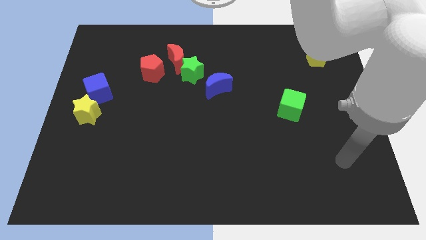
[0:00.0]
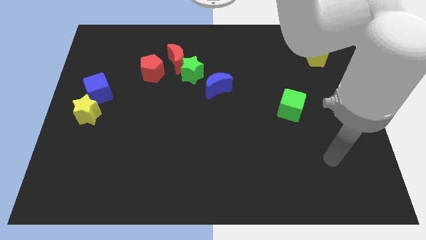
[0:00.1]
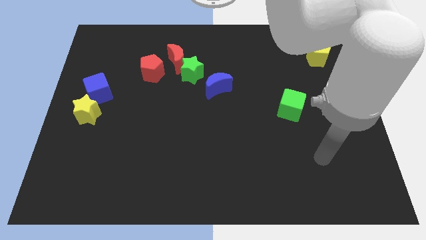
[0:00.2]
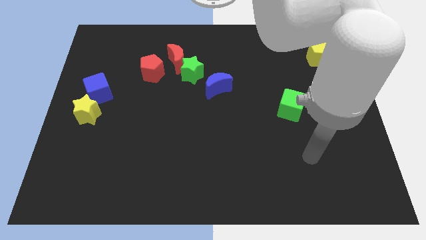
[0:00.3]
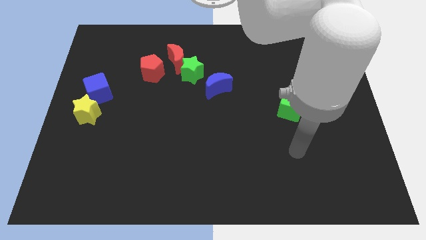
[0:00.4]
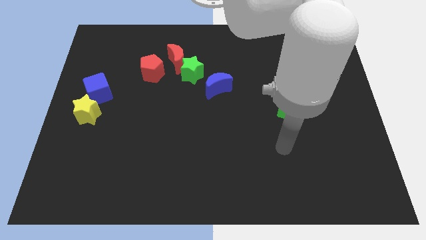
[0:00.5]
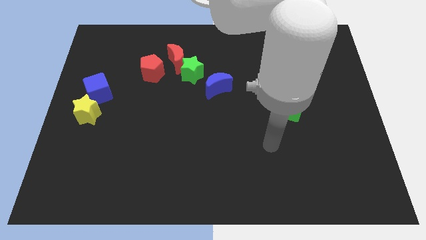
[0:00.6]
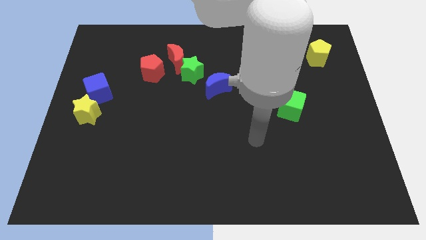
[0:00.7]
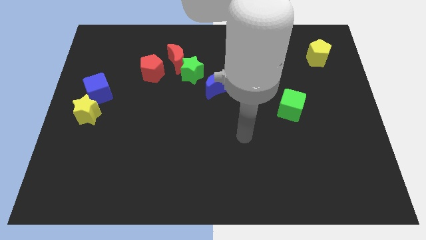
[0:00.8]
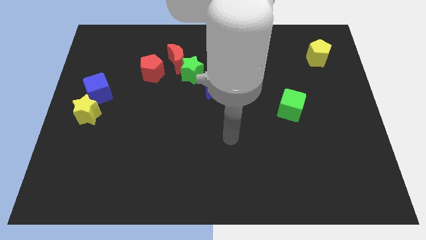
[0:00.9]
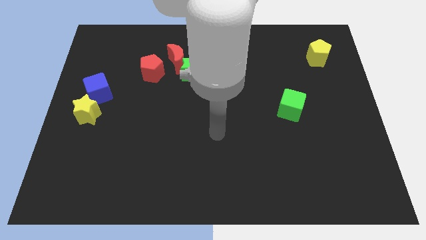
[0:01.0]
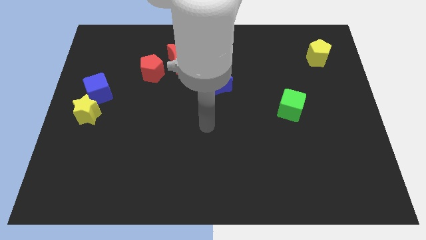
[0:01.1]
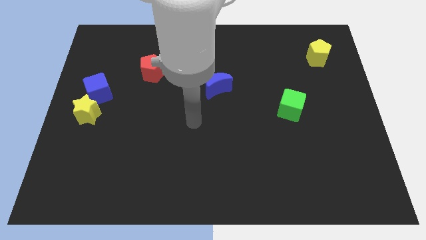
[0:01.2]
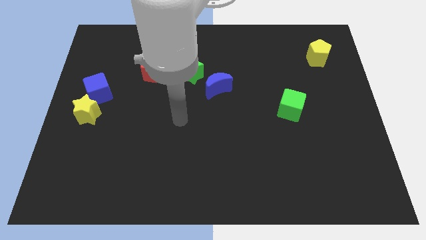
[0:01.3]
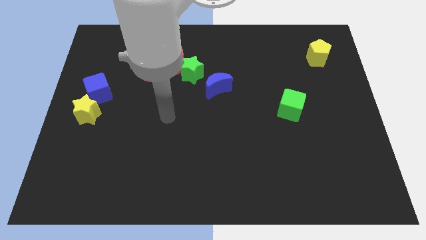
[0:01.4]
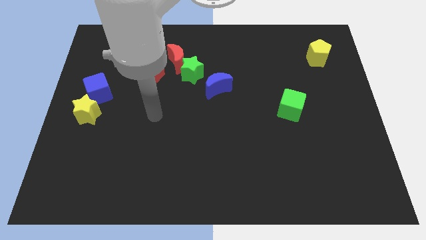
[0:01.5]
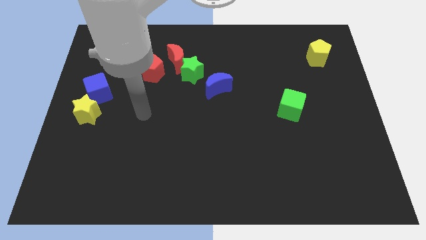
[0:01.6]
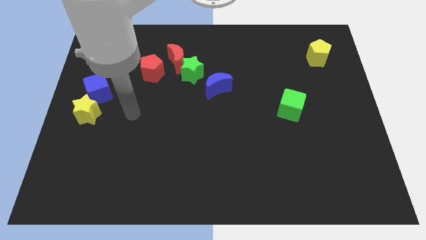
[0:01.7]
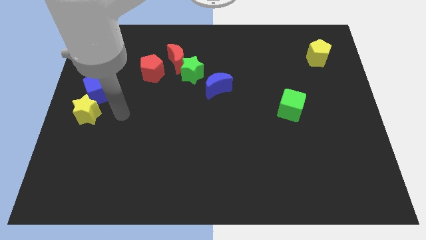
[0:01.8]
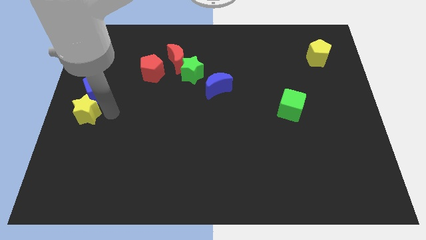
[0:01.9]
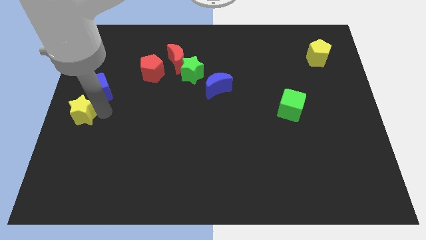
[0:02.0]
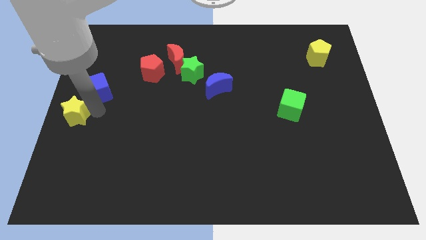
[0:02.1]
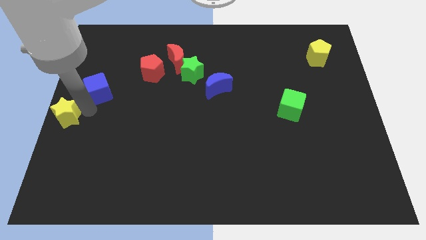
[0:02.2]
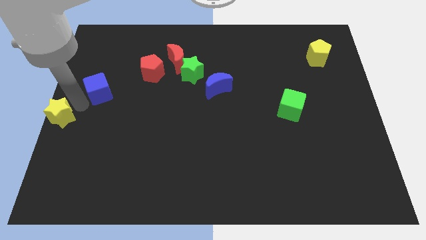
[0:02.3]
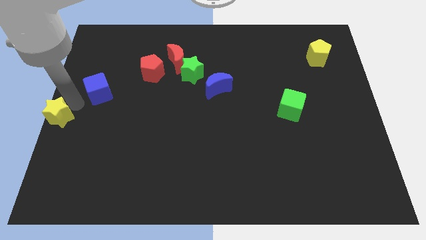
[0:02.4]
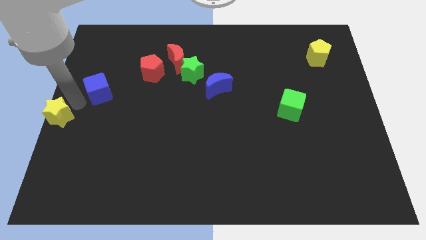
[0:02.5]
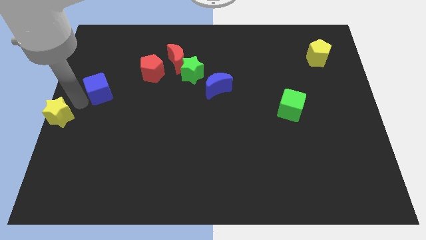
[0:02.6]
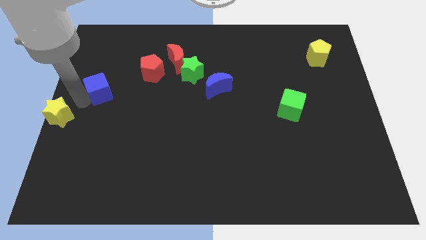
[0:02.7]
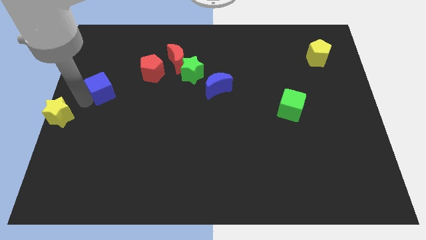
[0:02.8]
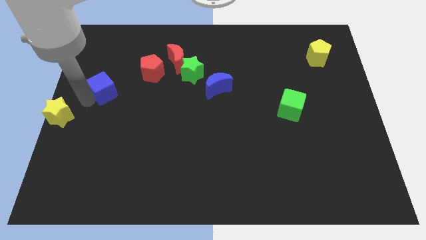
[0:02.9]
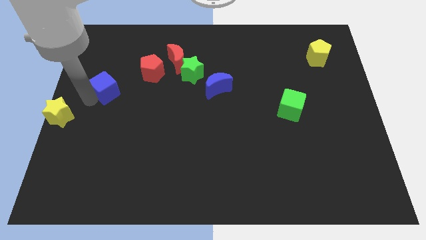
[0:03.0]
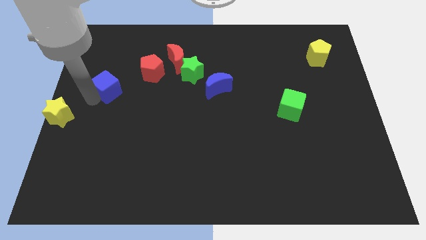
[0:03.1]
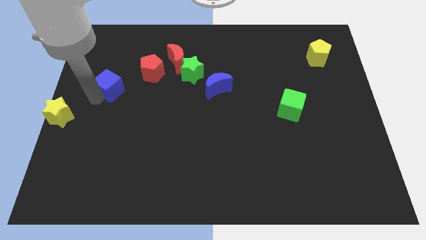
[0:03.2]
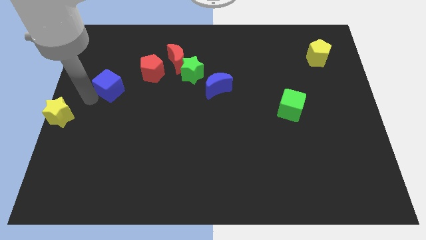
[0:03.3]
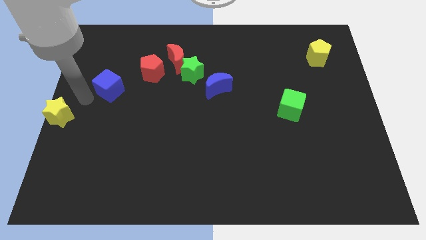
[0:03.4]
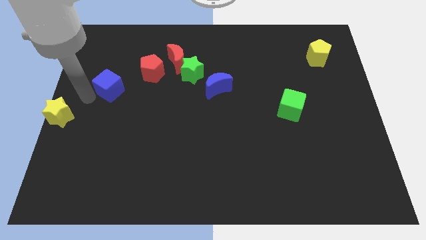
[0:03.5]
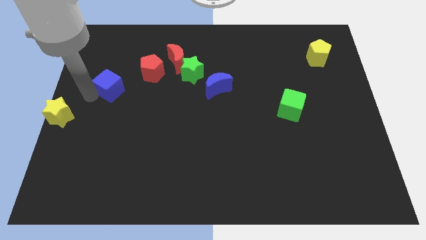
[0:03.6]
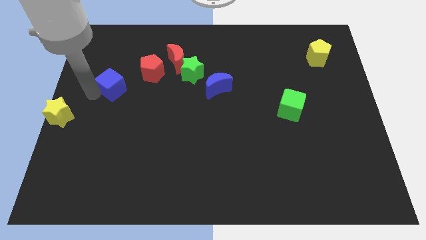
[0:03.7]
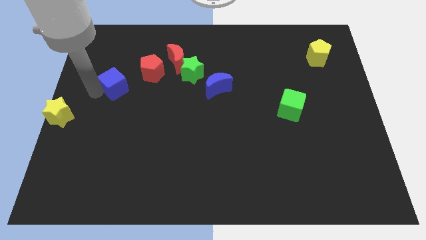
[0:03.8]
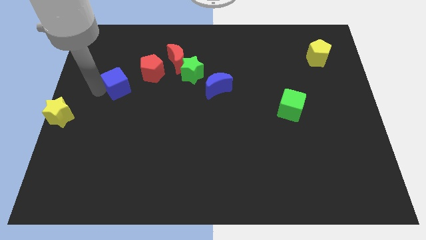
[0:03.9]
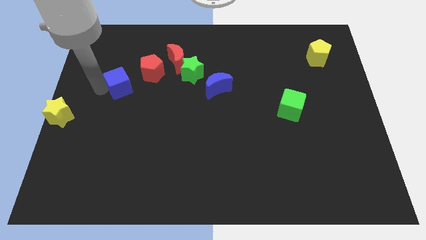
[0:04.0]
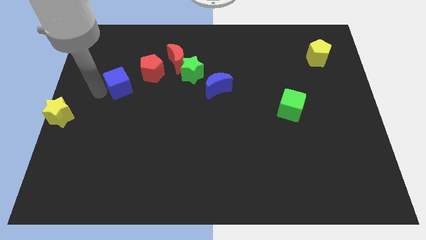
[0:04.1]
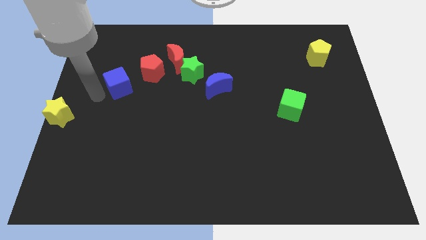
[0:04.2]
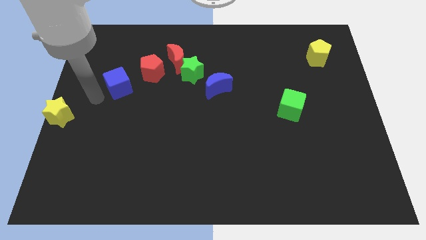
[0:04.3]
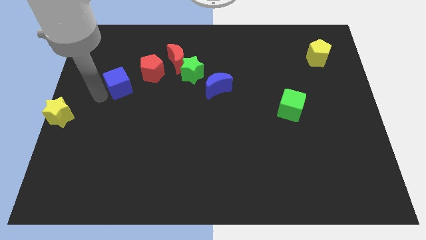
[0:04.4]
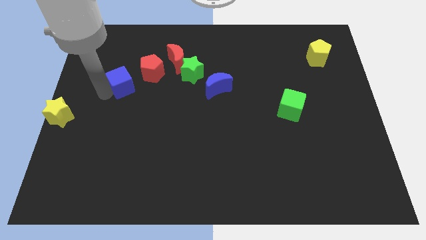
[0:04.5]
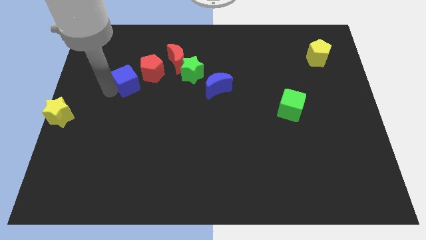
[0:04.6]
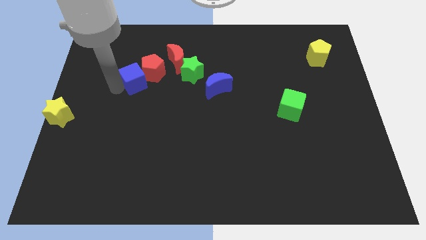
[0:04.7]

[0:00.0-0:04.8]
push the blue cube towards the red pentagon

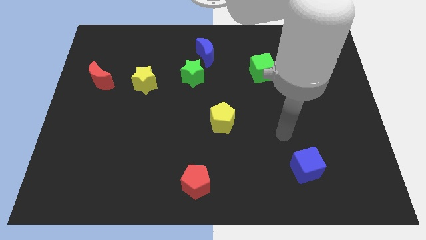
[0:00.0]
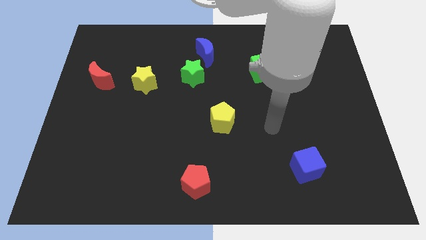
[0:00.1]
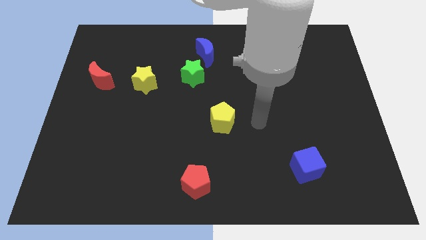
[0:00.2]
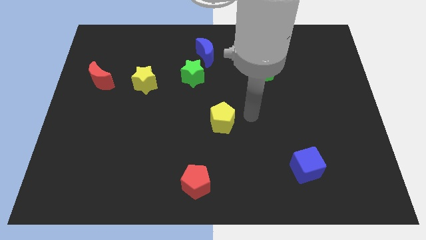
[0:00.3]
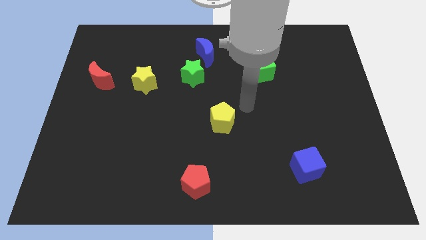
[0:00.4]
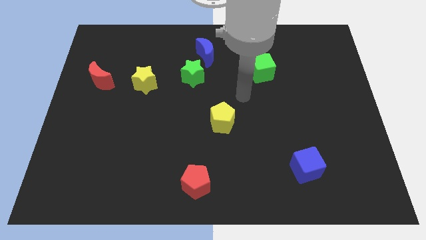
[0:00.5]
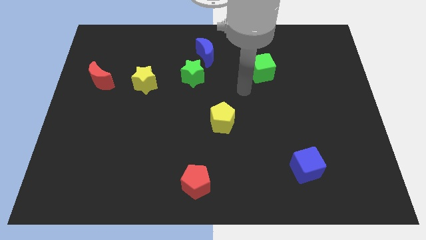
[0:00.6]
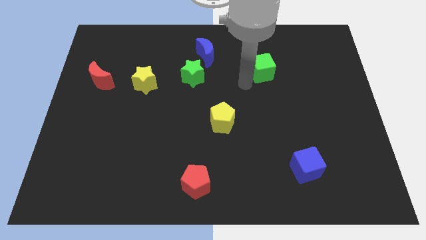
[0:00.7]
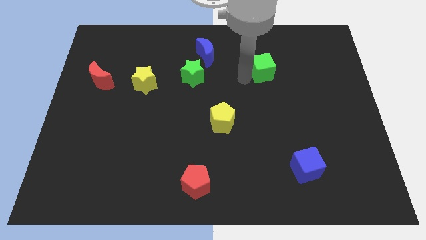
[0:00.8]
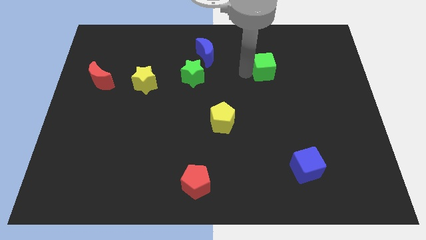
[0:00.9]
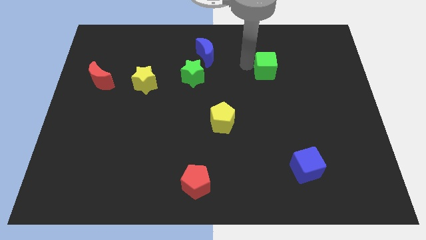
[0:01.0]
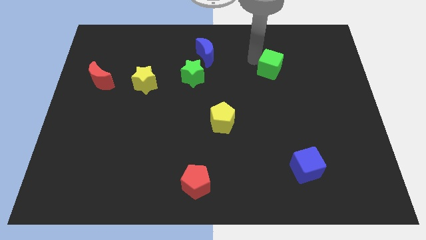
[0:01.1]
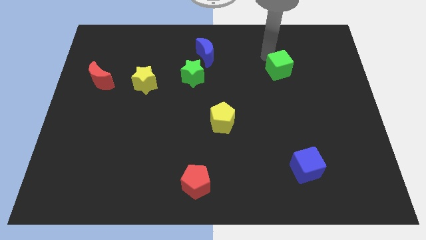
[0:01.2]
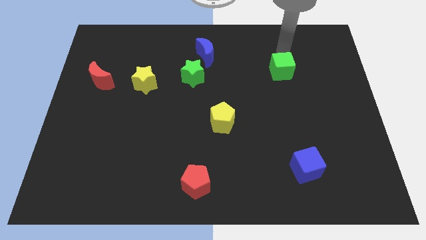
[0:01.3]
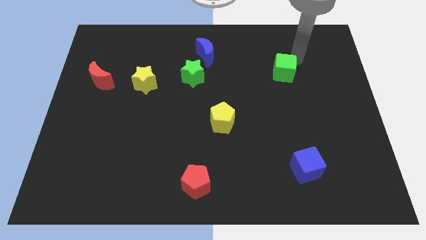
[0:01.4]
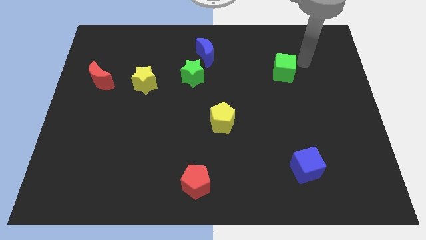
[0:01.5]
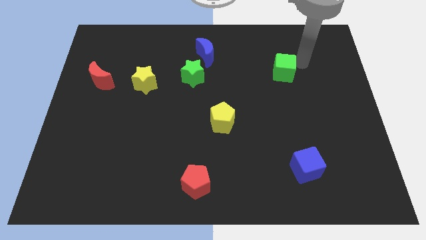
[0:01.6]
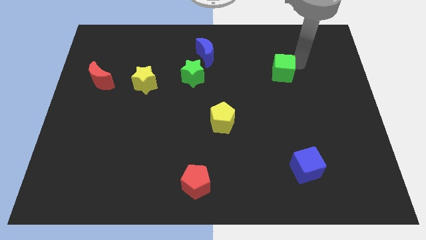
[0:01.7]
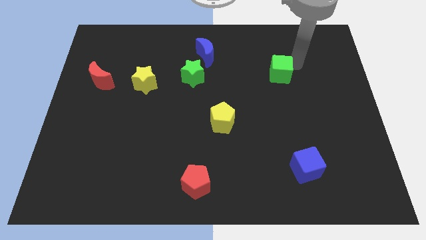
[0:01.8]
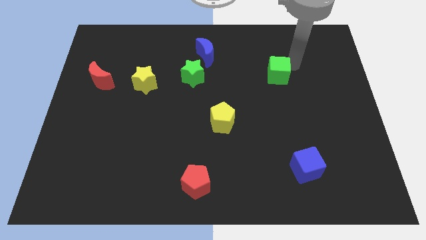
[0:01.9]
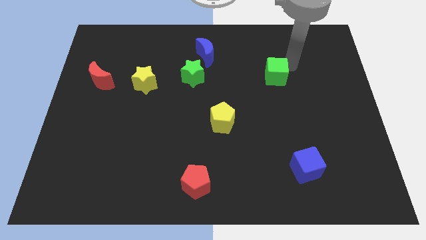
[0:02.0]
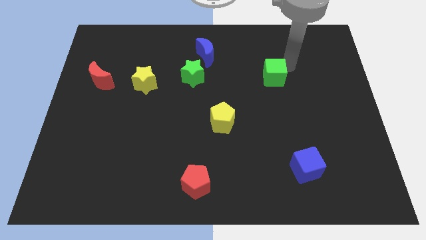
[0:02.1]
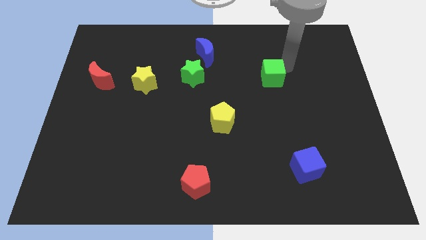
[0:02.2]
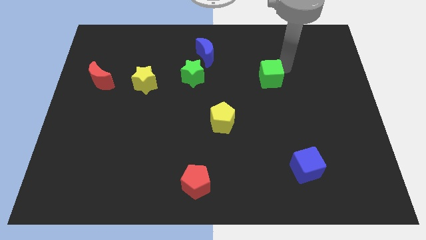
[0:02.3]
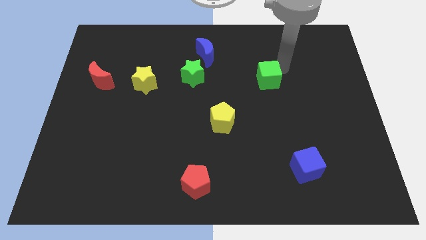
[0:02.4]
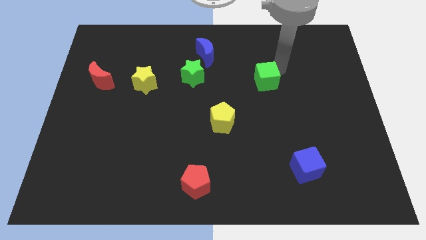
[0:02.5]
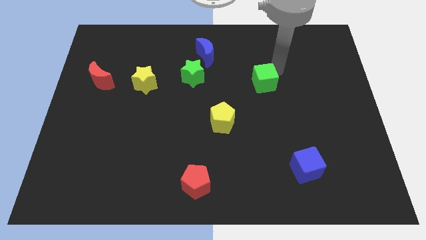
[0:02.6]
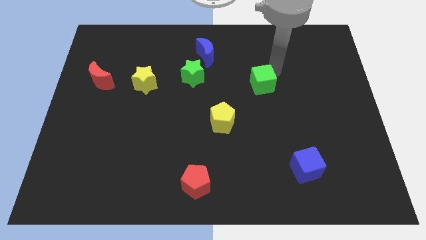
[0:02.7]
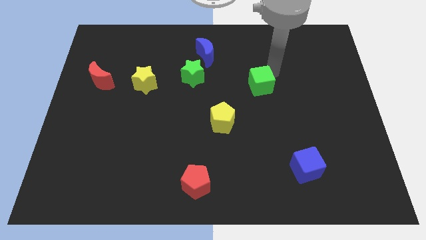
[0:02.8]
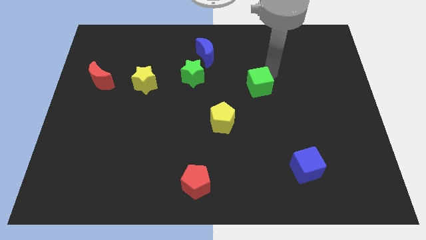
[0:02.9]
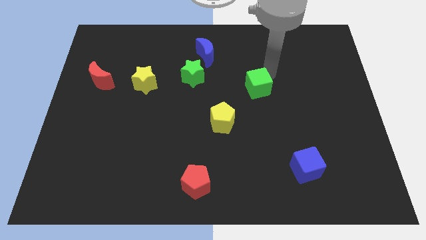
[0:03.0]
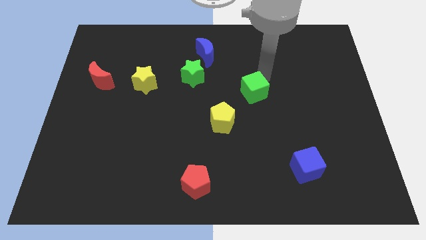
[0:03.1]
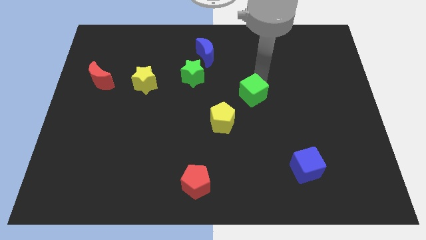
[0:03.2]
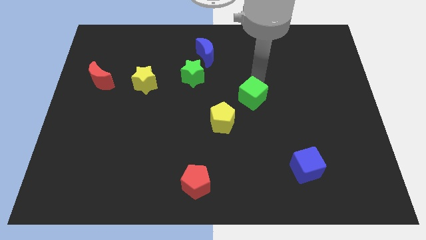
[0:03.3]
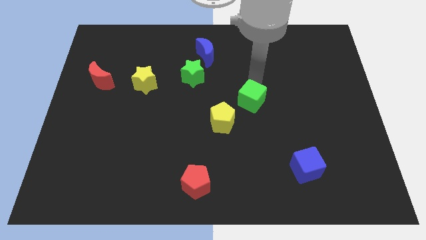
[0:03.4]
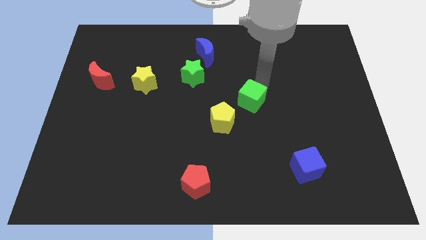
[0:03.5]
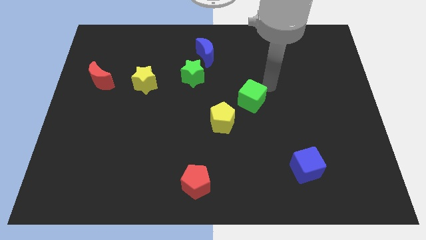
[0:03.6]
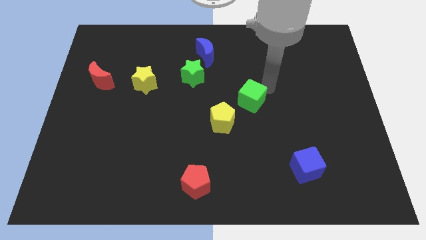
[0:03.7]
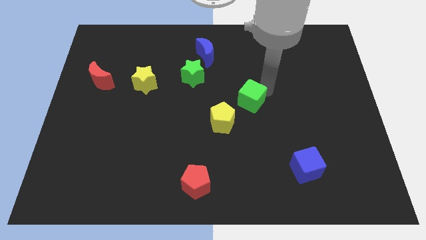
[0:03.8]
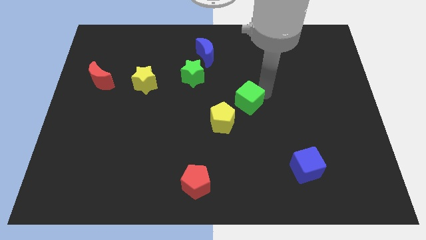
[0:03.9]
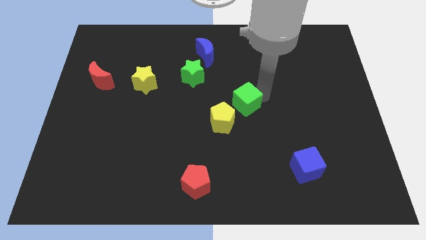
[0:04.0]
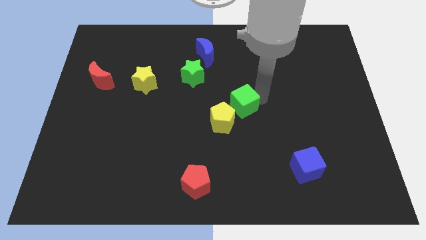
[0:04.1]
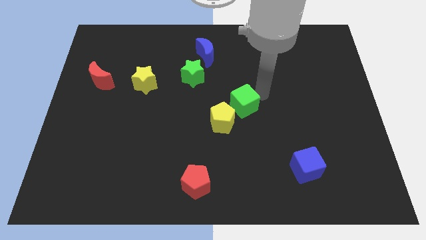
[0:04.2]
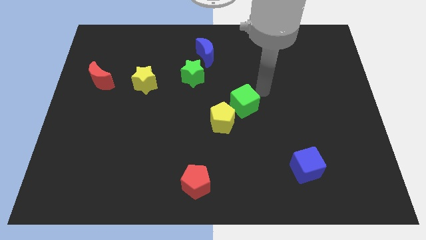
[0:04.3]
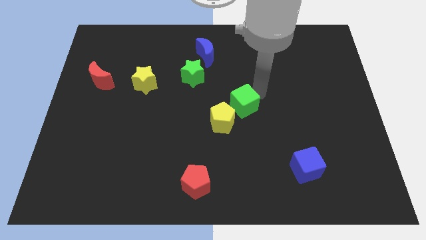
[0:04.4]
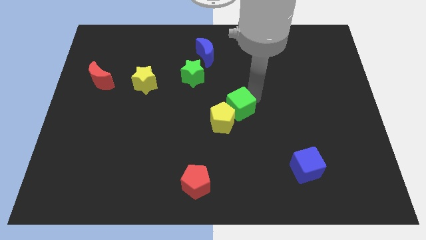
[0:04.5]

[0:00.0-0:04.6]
move the green cube towards the yellow pentagon
